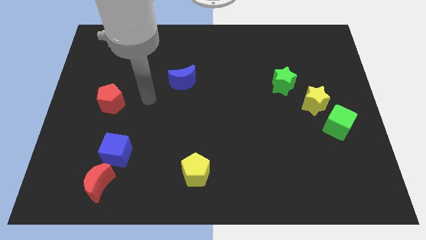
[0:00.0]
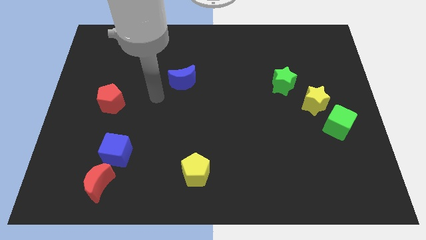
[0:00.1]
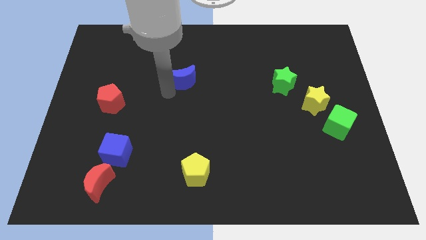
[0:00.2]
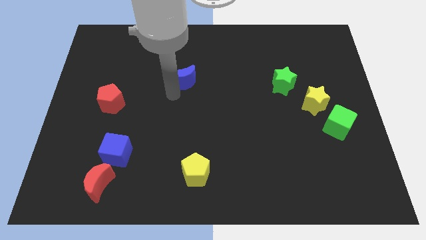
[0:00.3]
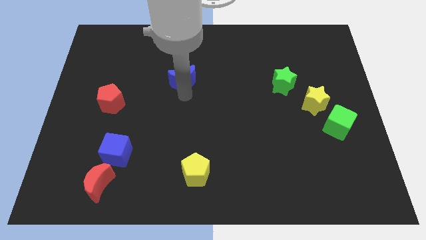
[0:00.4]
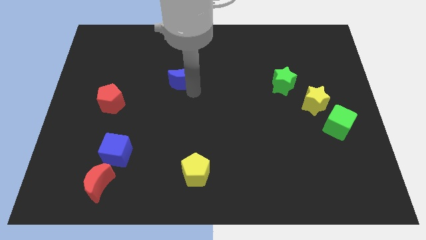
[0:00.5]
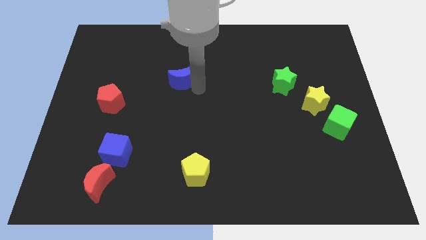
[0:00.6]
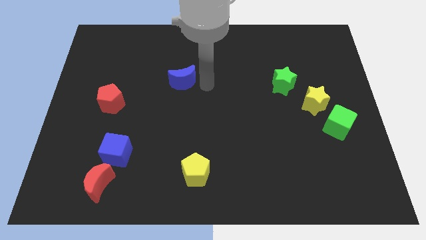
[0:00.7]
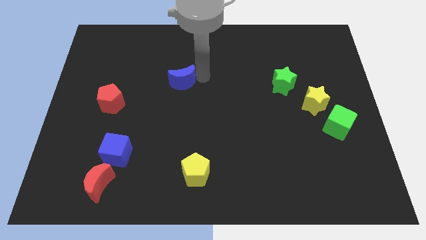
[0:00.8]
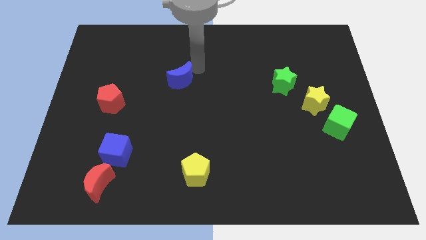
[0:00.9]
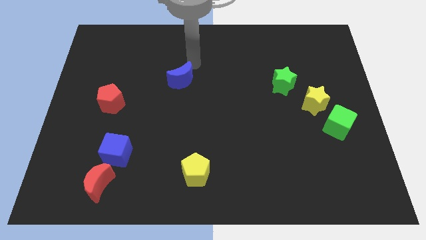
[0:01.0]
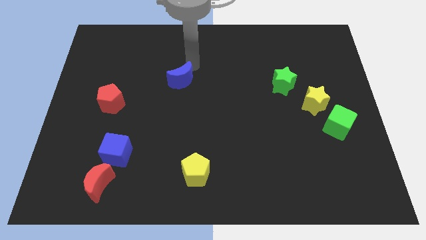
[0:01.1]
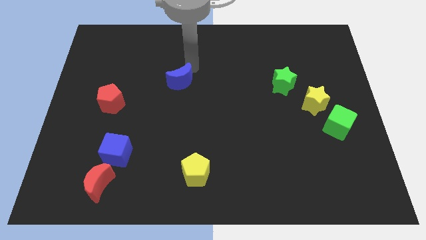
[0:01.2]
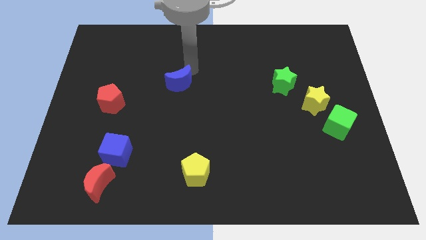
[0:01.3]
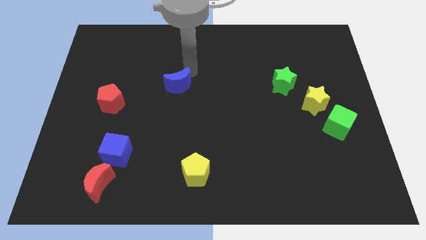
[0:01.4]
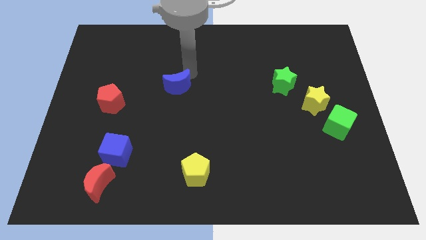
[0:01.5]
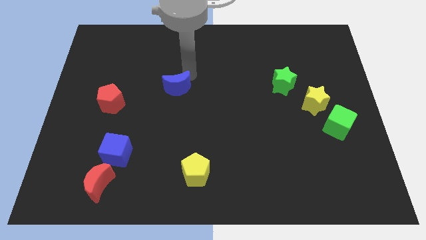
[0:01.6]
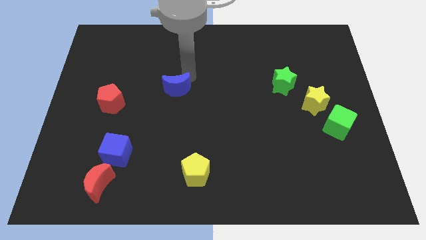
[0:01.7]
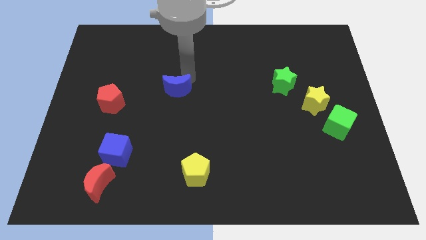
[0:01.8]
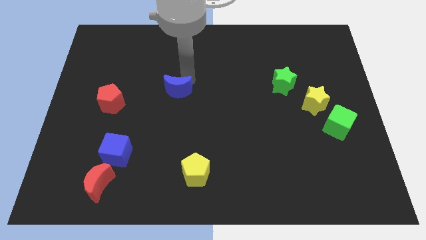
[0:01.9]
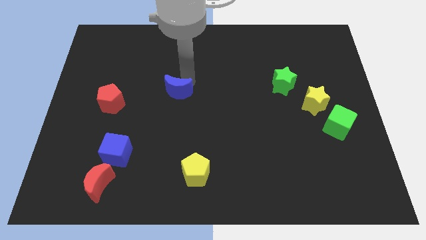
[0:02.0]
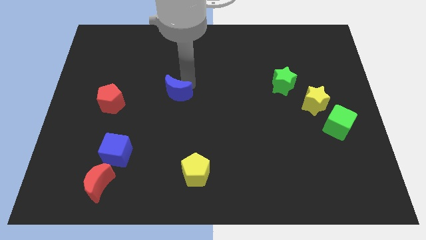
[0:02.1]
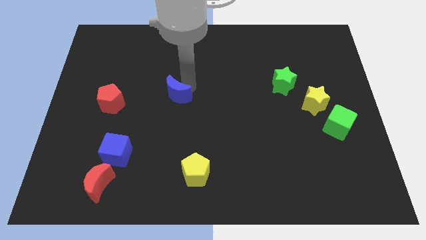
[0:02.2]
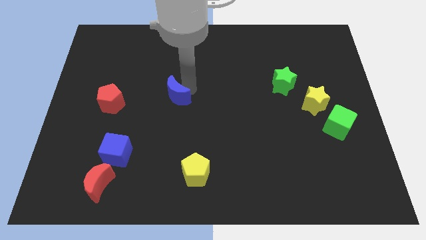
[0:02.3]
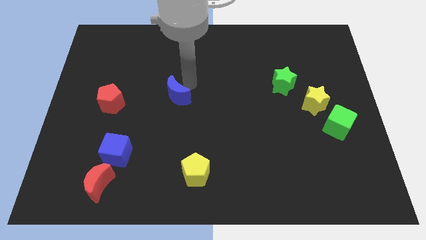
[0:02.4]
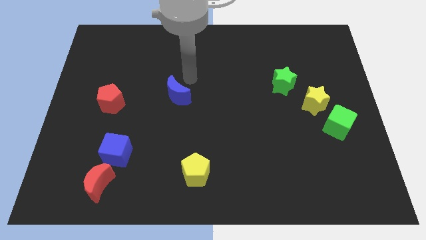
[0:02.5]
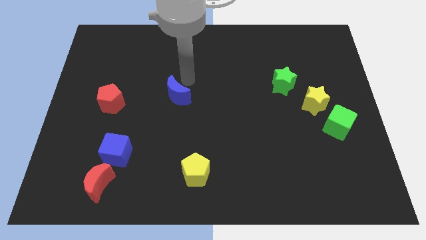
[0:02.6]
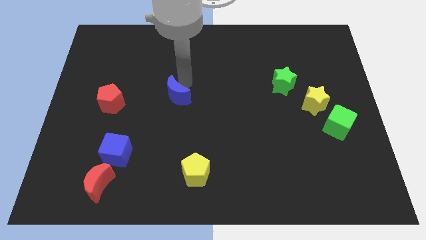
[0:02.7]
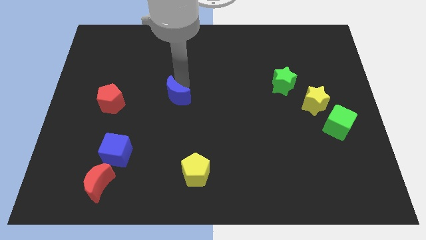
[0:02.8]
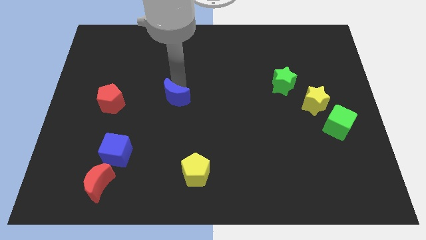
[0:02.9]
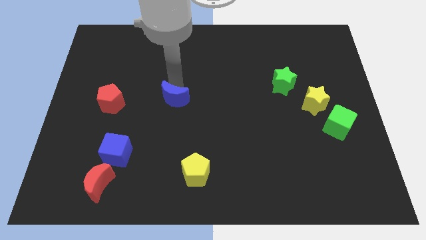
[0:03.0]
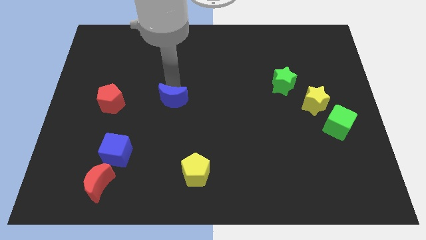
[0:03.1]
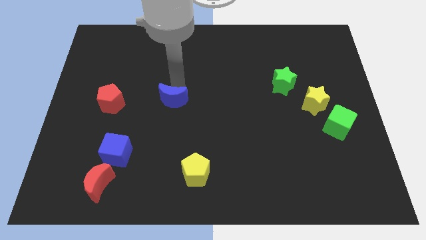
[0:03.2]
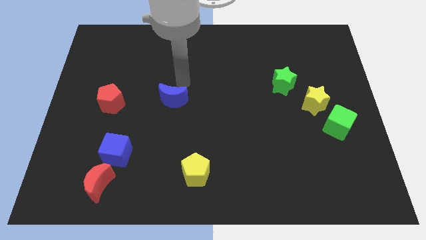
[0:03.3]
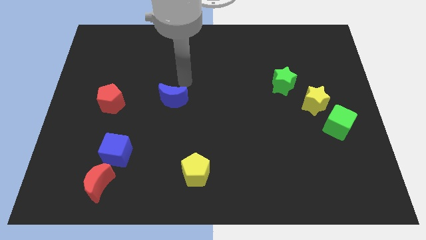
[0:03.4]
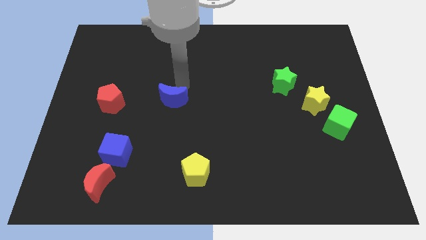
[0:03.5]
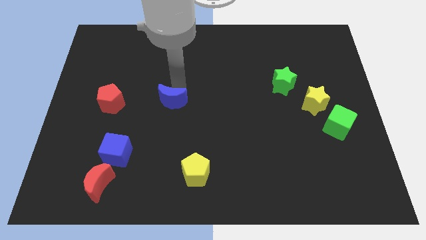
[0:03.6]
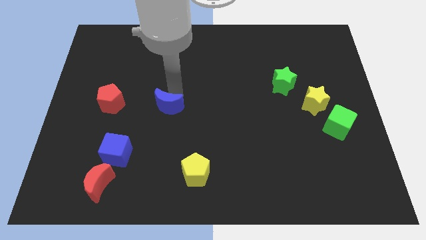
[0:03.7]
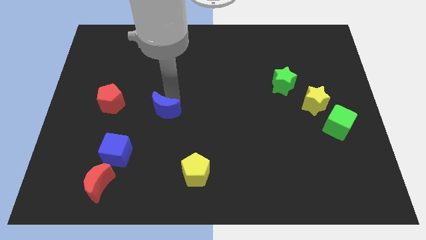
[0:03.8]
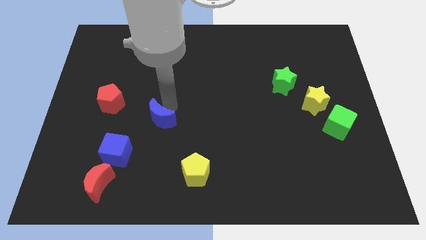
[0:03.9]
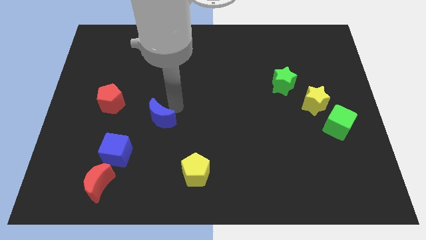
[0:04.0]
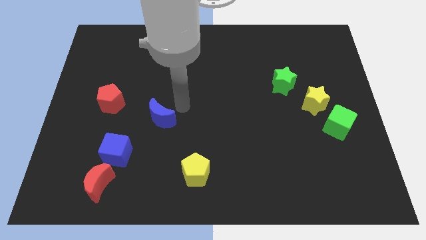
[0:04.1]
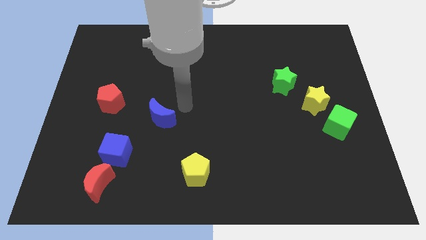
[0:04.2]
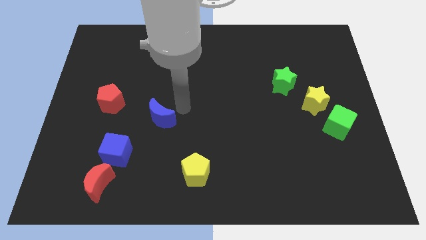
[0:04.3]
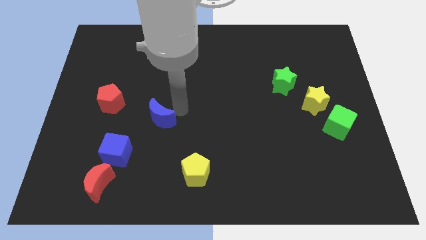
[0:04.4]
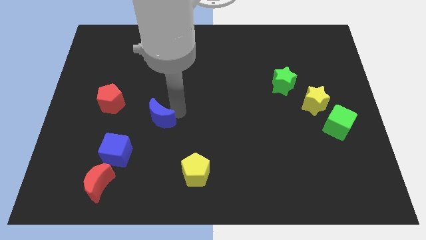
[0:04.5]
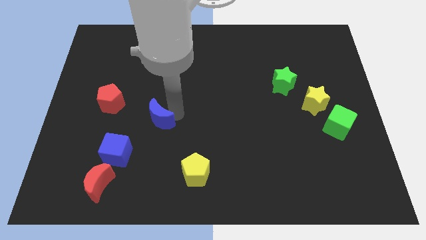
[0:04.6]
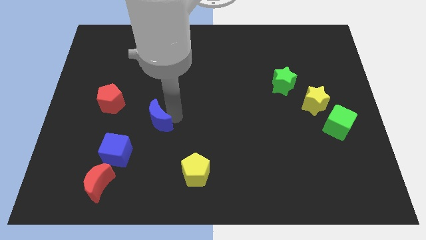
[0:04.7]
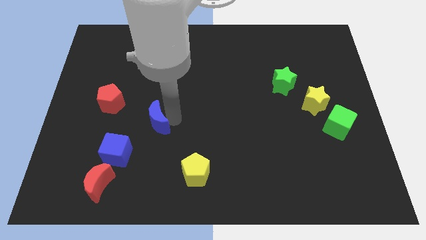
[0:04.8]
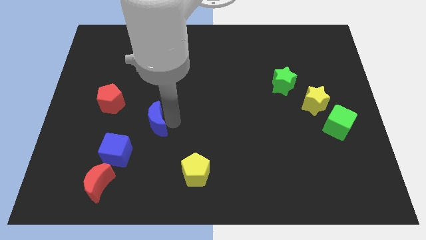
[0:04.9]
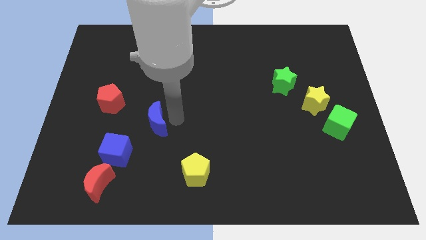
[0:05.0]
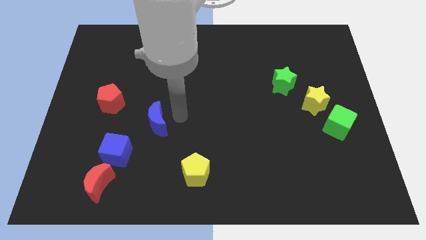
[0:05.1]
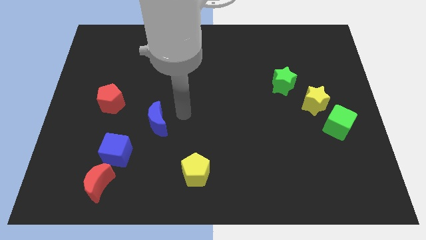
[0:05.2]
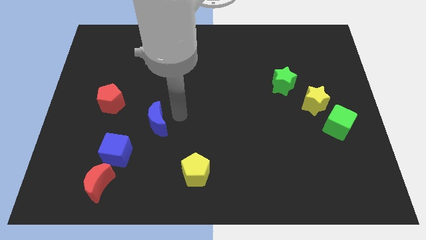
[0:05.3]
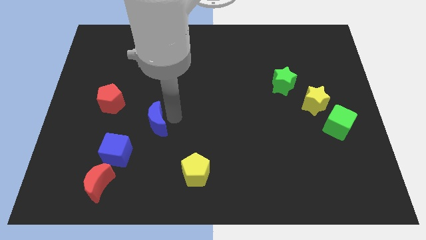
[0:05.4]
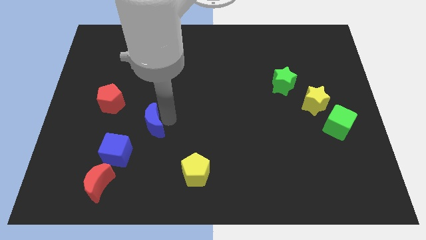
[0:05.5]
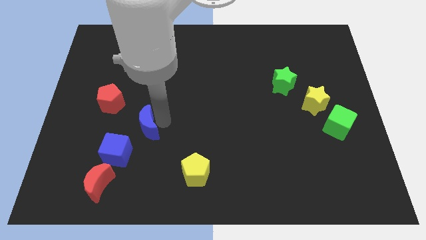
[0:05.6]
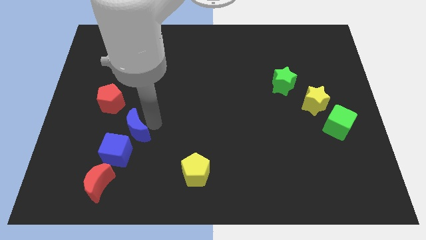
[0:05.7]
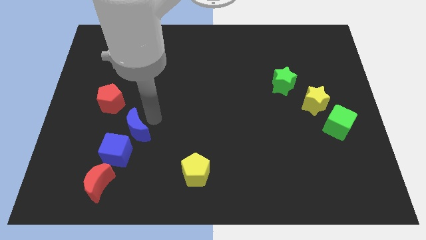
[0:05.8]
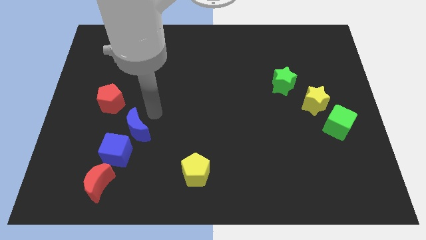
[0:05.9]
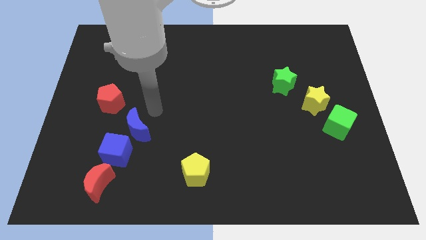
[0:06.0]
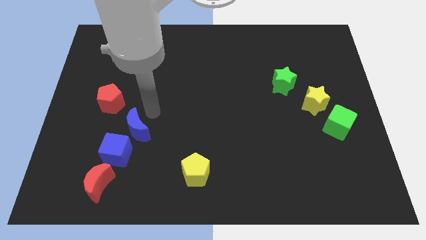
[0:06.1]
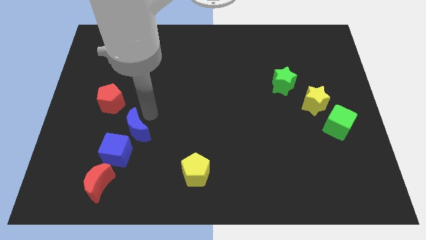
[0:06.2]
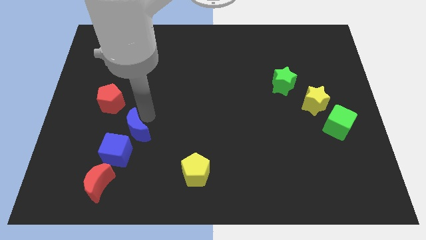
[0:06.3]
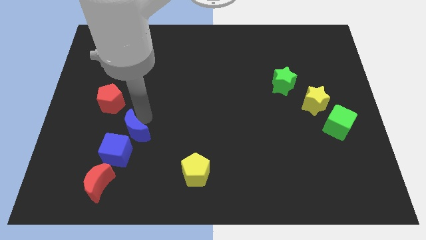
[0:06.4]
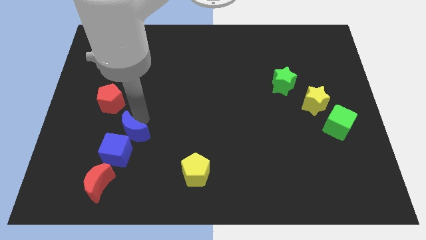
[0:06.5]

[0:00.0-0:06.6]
put the blue moon next to the blue cube

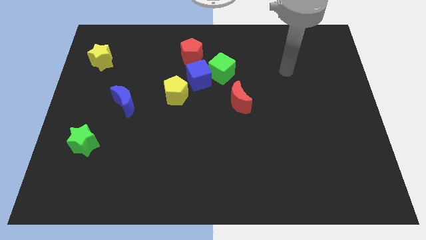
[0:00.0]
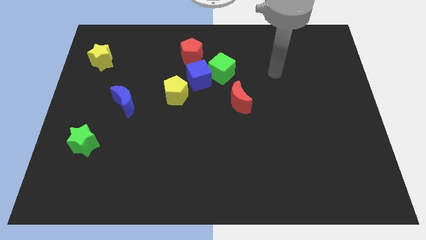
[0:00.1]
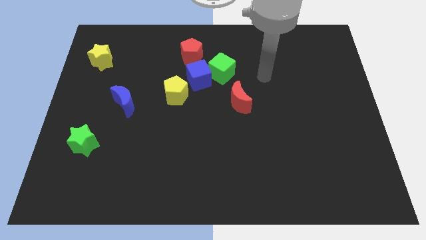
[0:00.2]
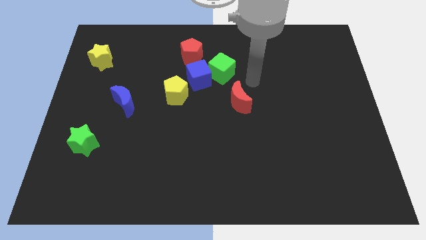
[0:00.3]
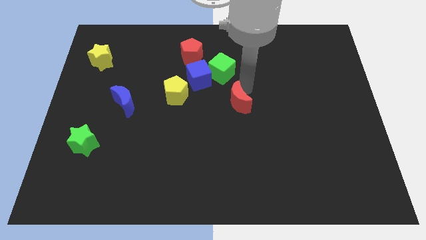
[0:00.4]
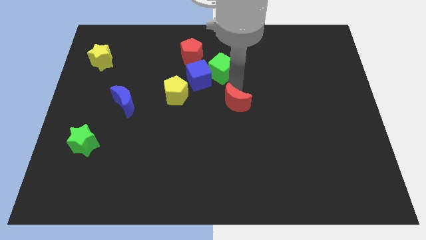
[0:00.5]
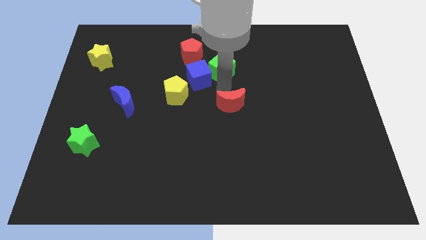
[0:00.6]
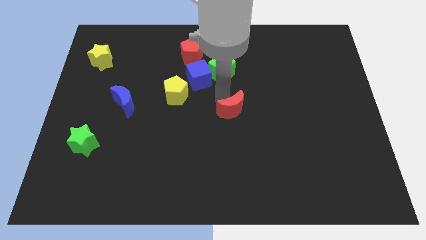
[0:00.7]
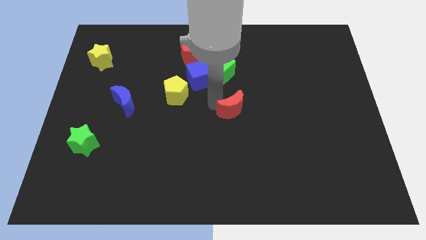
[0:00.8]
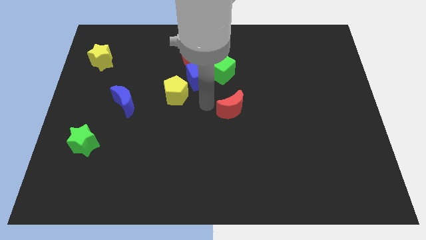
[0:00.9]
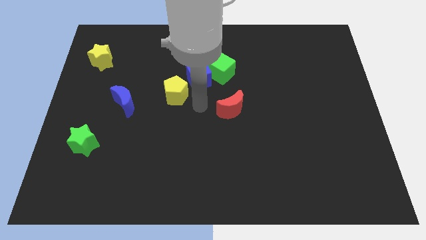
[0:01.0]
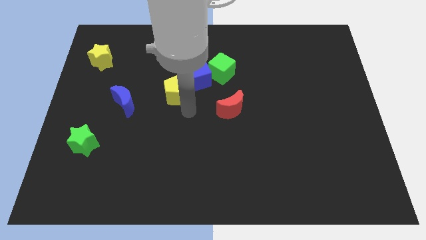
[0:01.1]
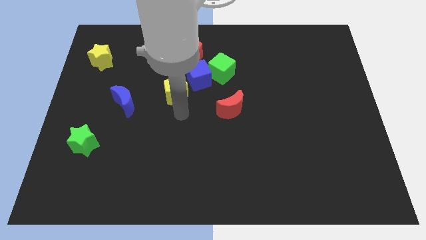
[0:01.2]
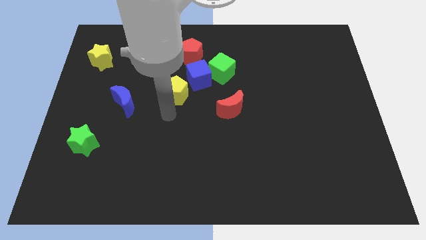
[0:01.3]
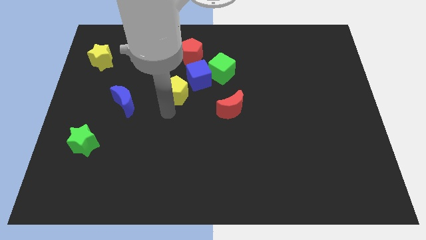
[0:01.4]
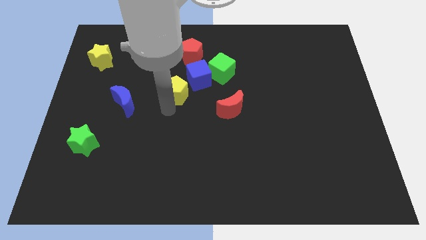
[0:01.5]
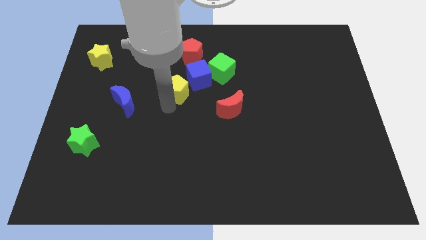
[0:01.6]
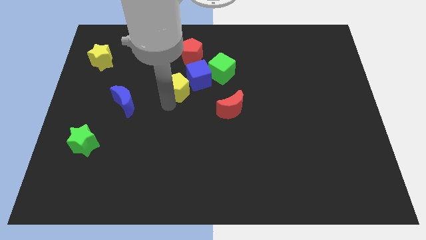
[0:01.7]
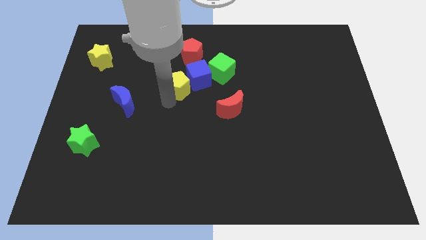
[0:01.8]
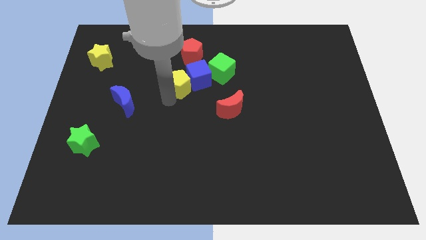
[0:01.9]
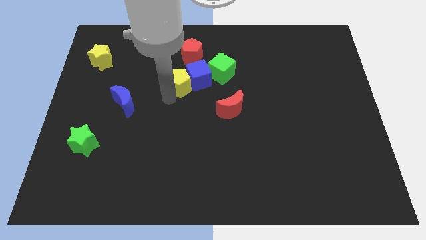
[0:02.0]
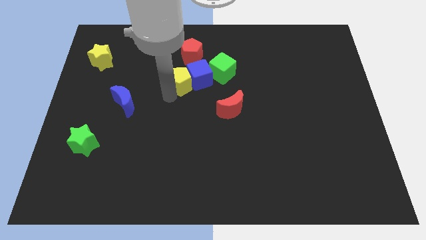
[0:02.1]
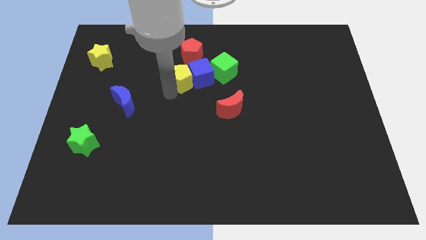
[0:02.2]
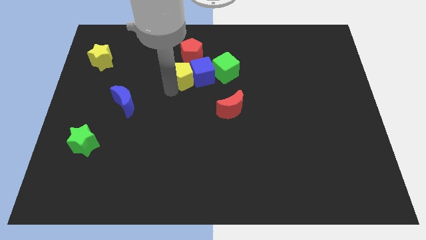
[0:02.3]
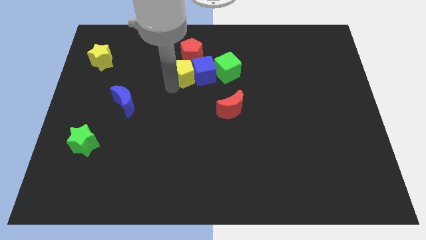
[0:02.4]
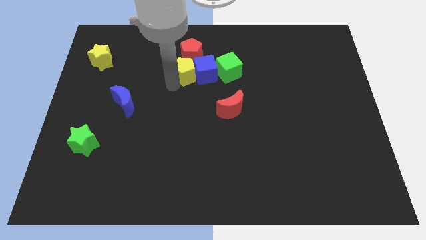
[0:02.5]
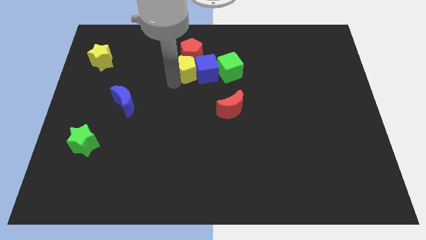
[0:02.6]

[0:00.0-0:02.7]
push the yellow pentagon towards the red pentagon
